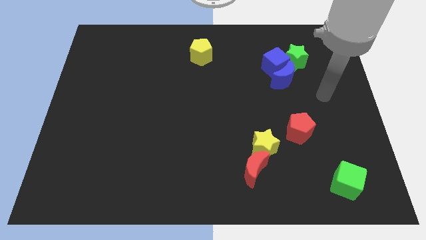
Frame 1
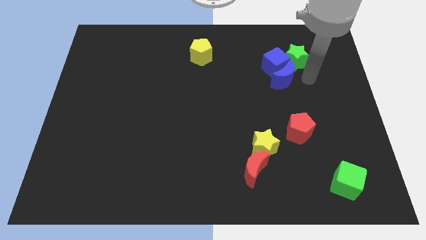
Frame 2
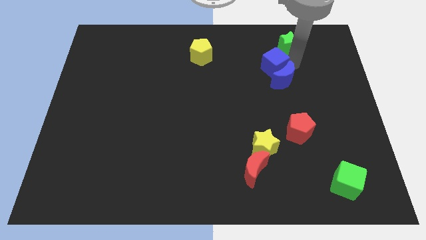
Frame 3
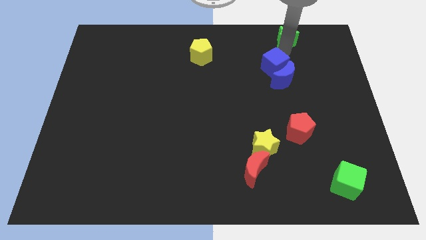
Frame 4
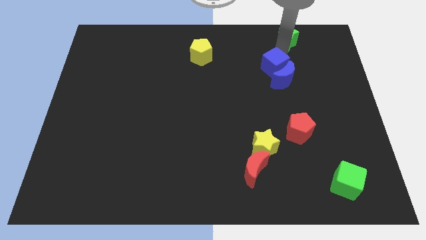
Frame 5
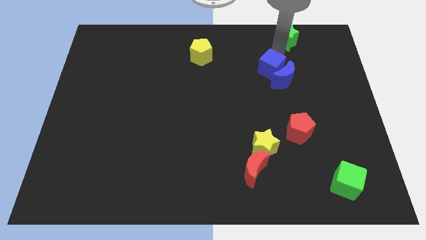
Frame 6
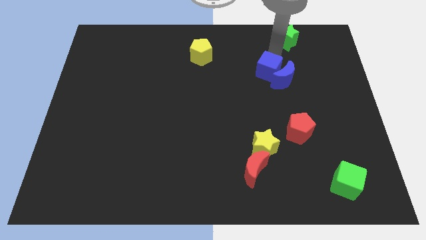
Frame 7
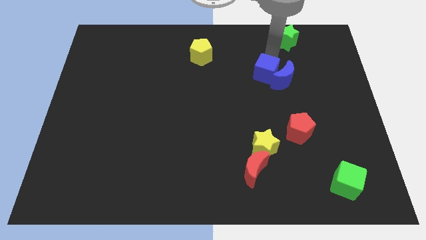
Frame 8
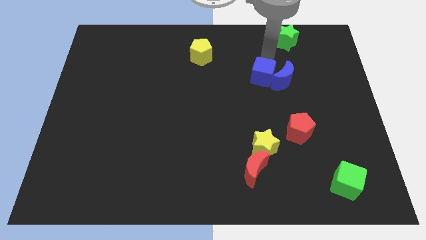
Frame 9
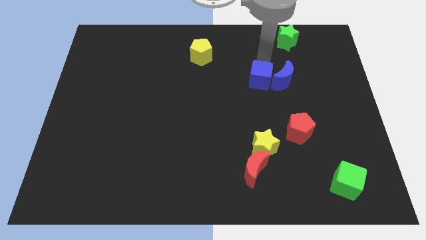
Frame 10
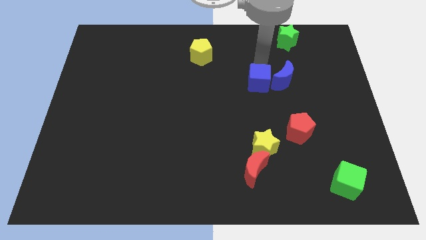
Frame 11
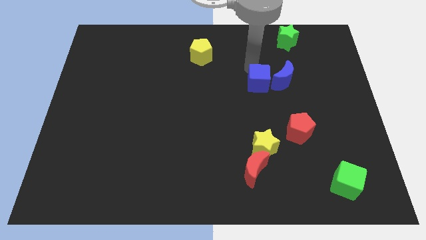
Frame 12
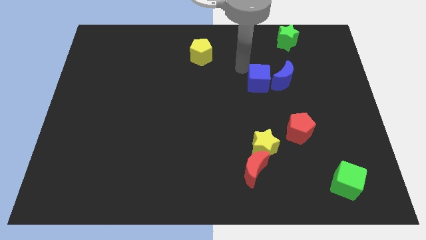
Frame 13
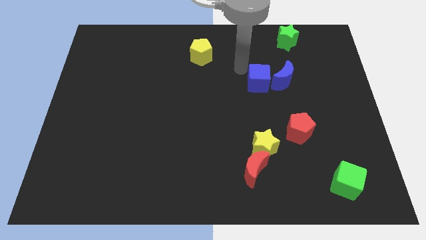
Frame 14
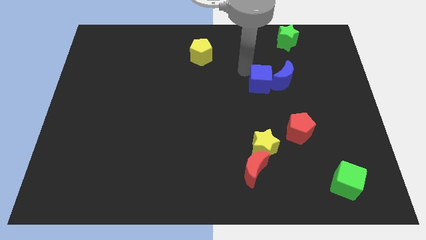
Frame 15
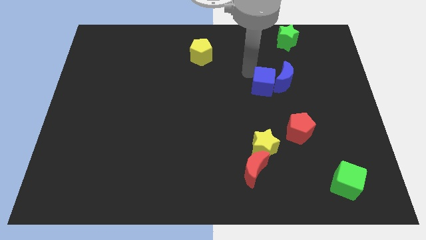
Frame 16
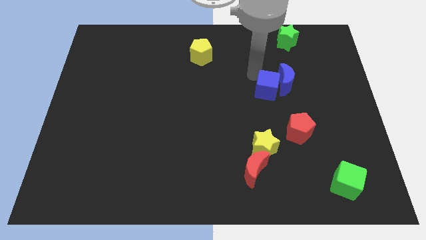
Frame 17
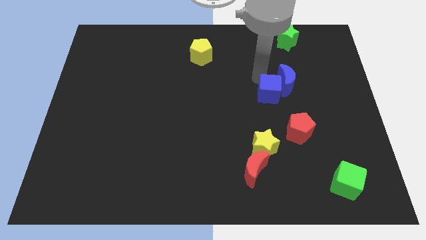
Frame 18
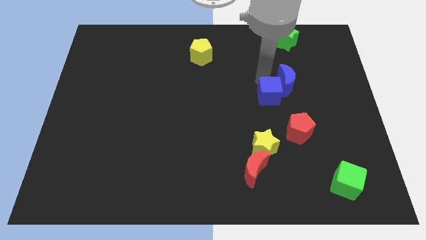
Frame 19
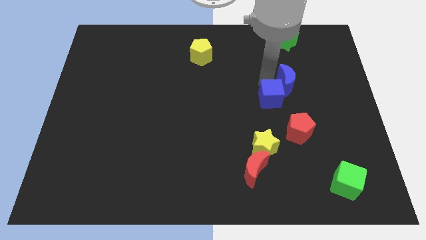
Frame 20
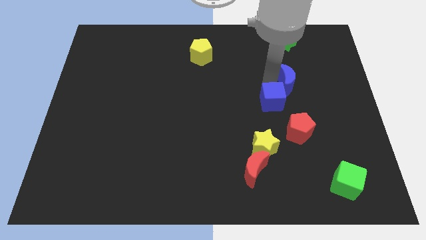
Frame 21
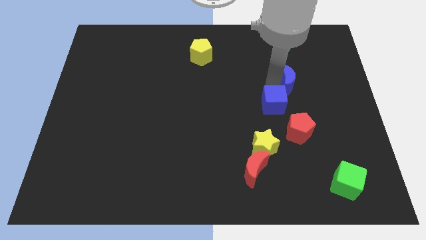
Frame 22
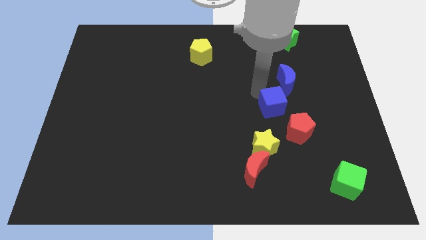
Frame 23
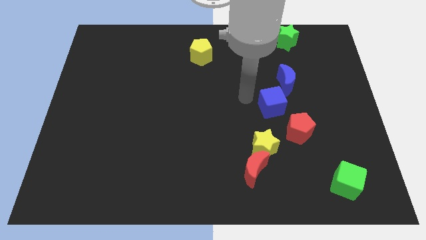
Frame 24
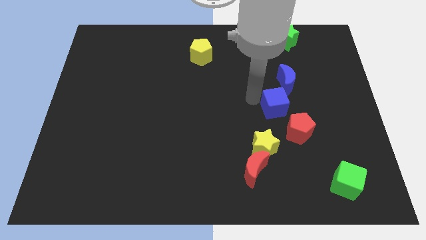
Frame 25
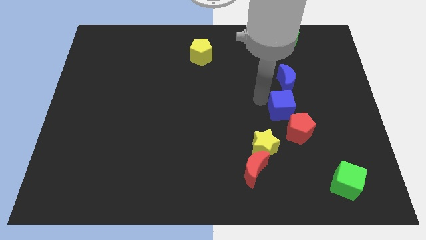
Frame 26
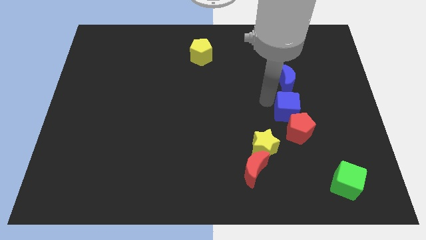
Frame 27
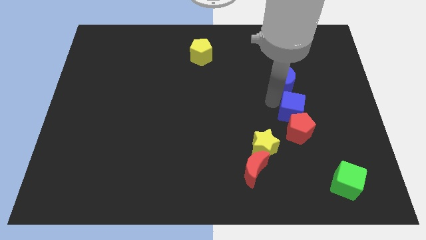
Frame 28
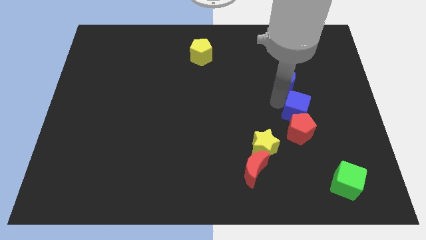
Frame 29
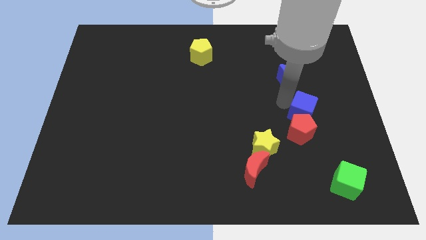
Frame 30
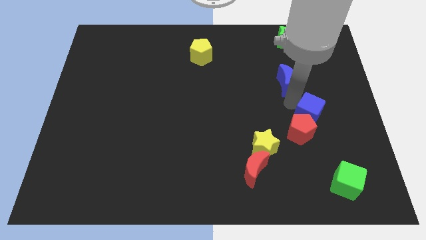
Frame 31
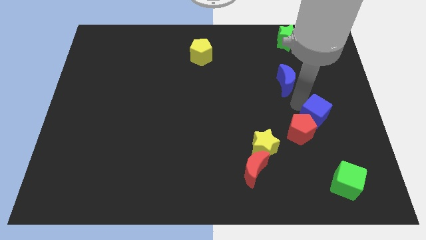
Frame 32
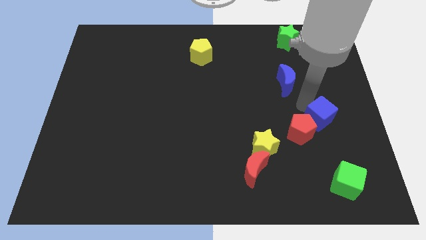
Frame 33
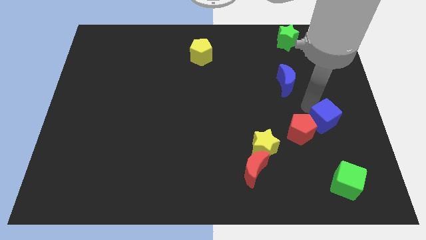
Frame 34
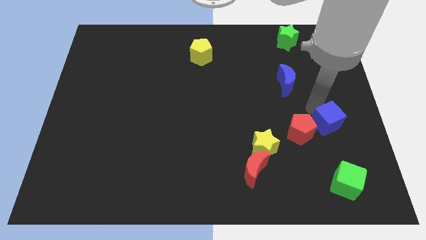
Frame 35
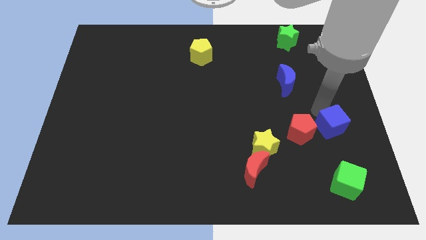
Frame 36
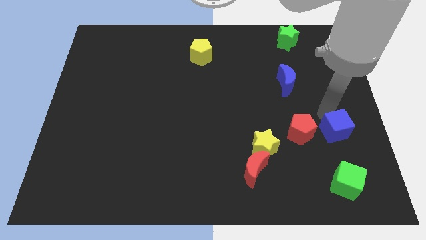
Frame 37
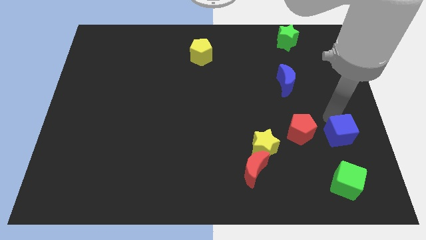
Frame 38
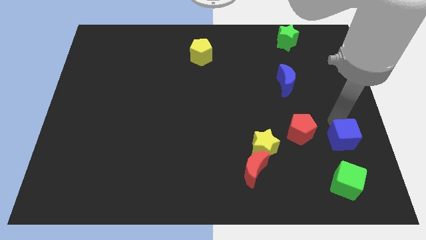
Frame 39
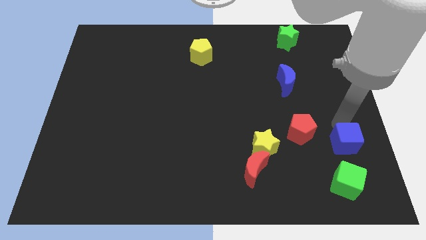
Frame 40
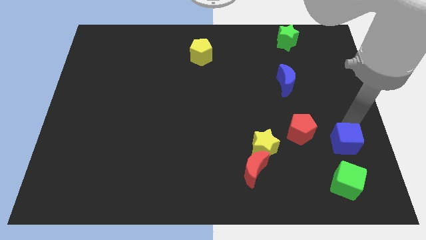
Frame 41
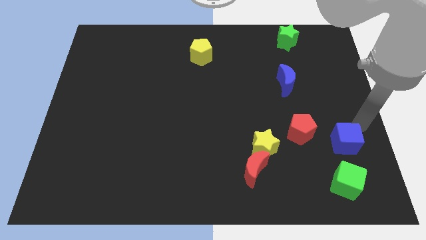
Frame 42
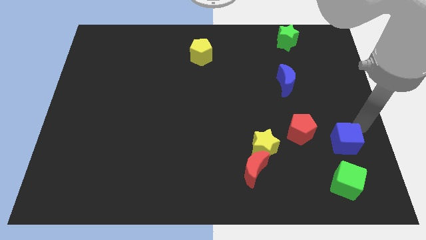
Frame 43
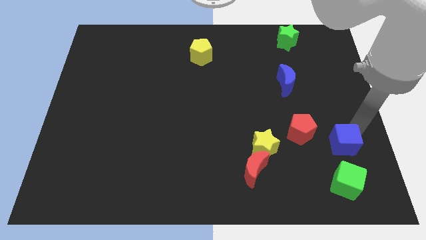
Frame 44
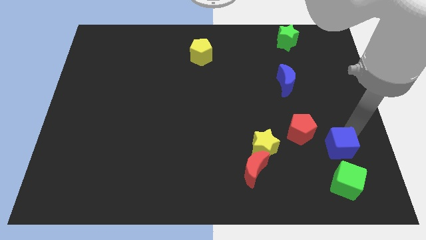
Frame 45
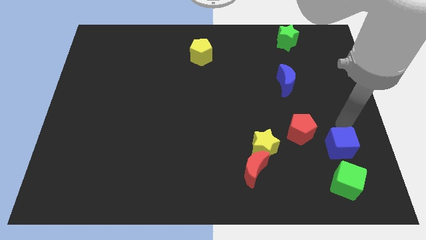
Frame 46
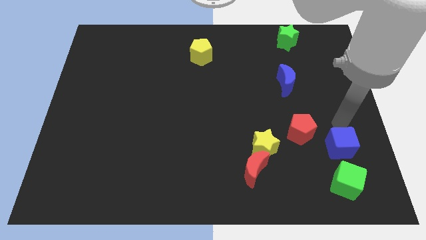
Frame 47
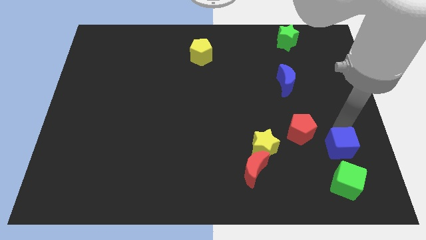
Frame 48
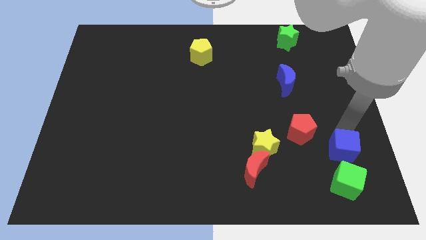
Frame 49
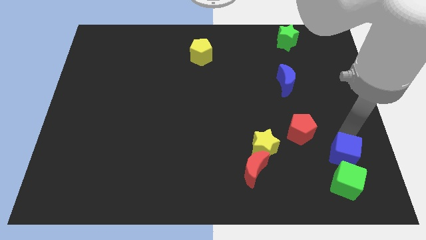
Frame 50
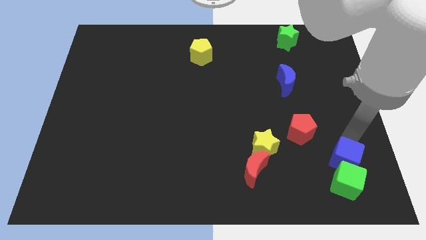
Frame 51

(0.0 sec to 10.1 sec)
move the blue cube next to the green cube

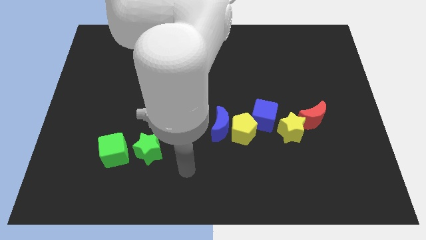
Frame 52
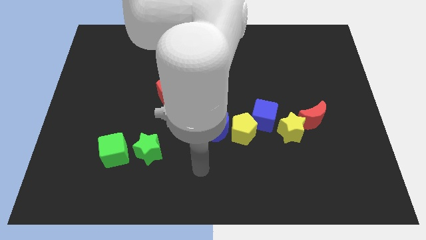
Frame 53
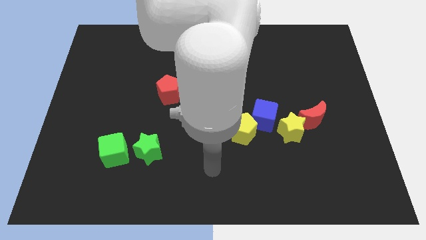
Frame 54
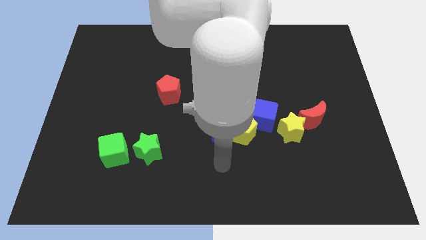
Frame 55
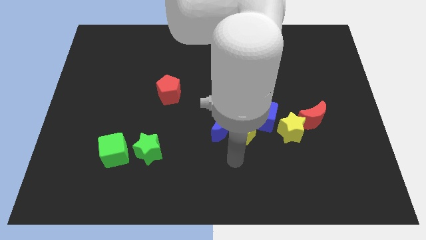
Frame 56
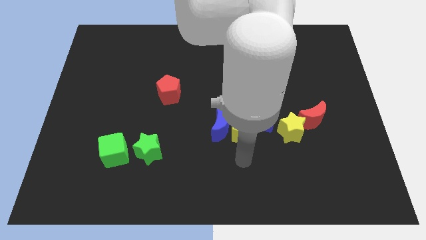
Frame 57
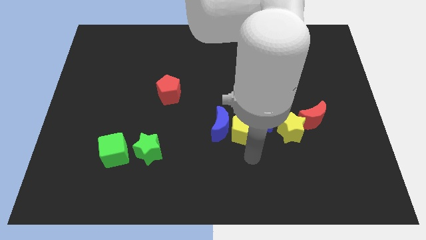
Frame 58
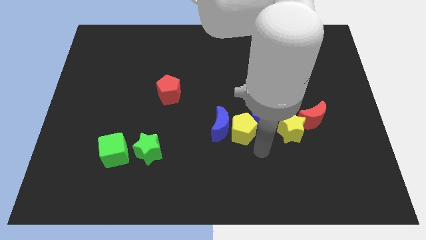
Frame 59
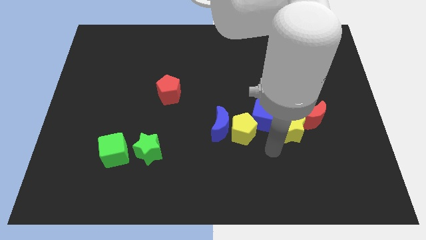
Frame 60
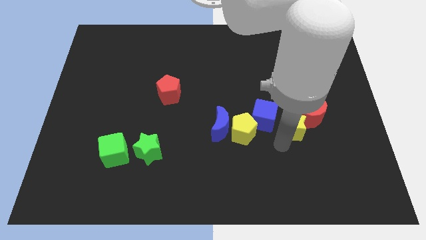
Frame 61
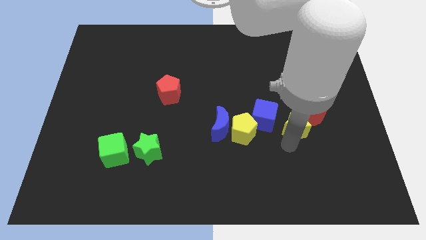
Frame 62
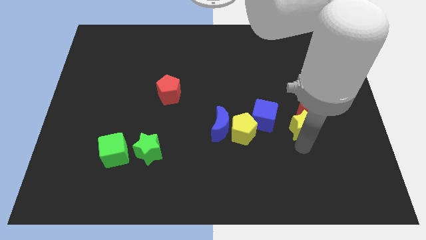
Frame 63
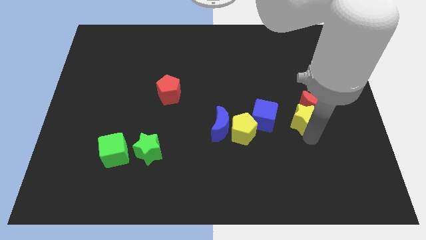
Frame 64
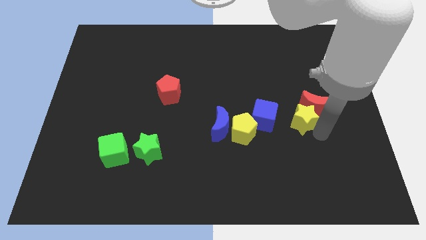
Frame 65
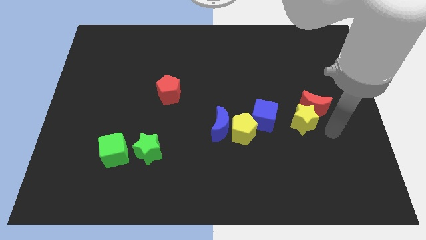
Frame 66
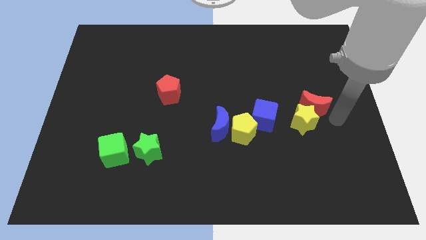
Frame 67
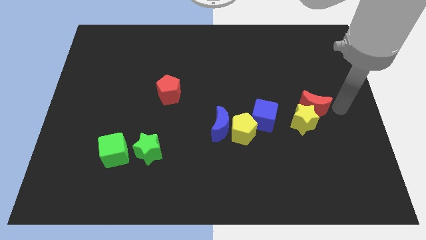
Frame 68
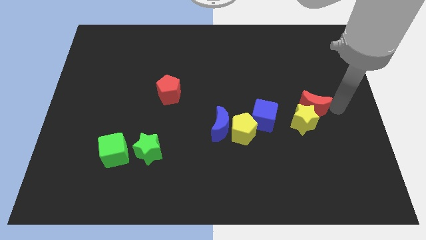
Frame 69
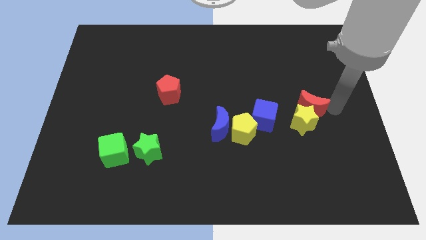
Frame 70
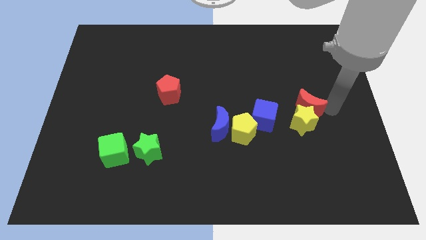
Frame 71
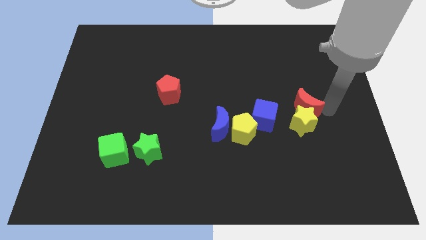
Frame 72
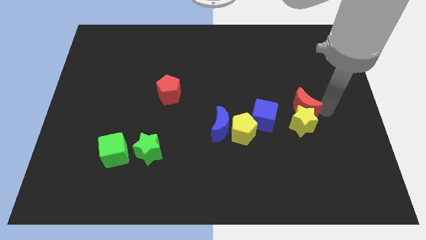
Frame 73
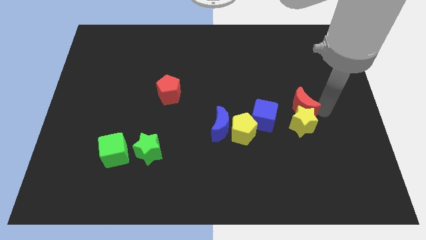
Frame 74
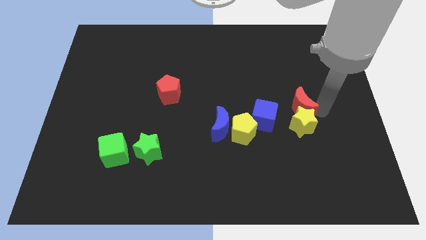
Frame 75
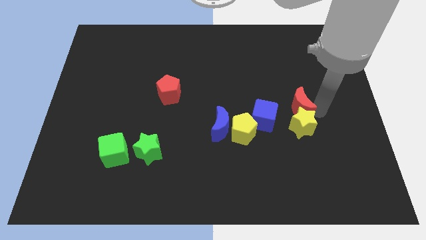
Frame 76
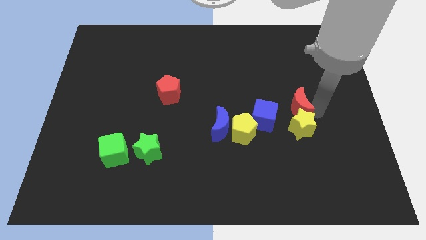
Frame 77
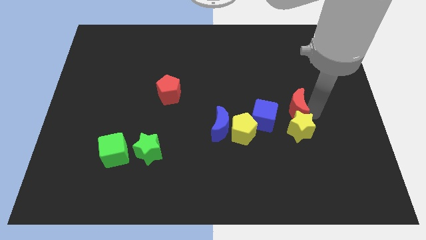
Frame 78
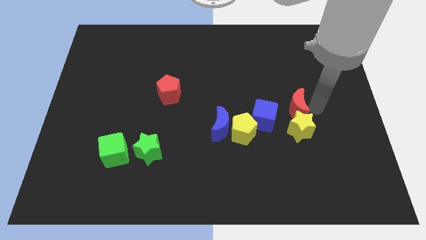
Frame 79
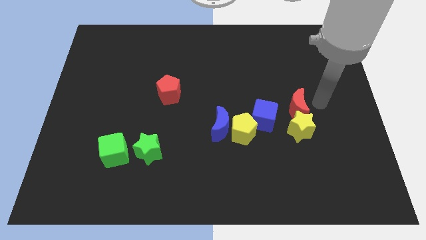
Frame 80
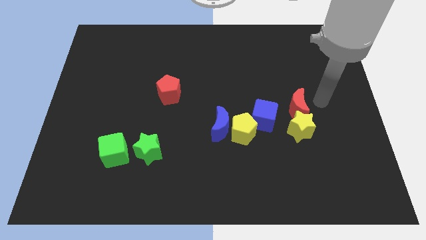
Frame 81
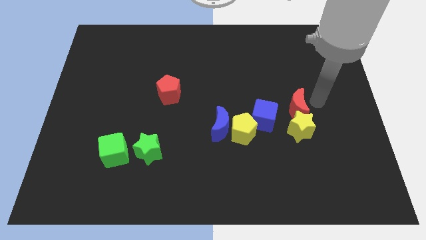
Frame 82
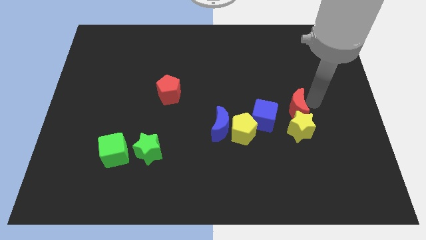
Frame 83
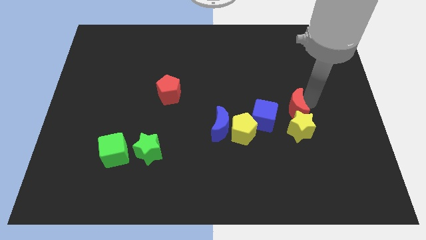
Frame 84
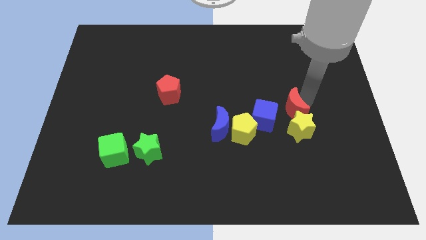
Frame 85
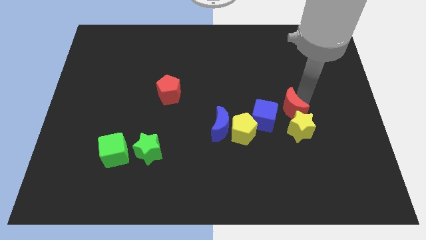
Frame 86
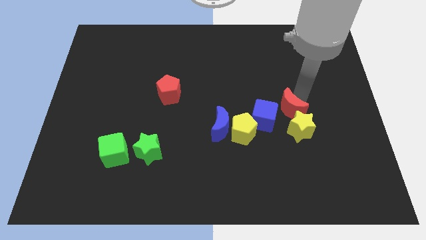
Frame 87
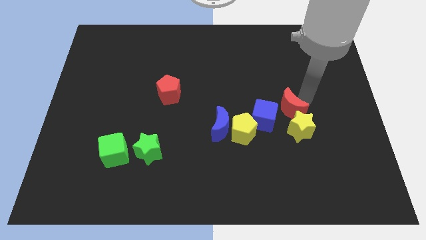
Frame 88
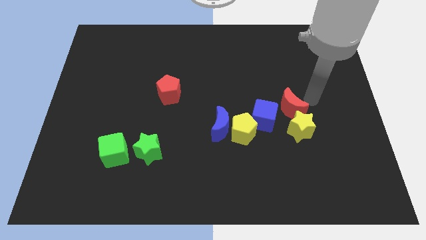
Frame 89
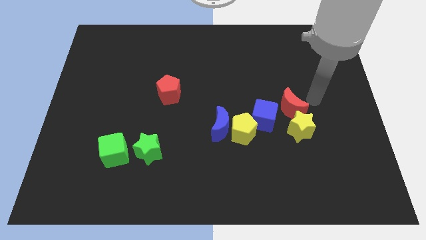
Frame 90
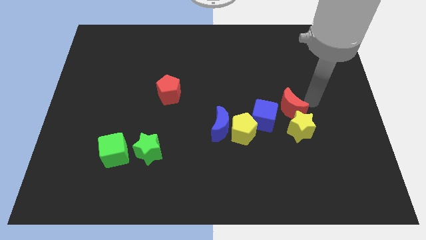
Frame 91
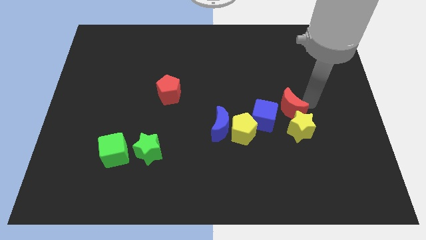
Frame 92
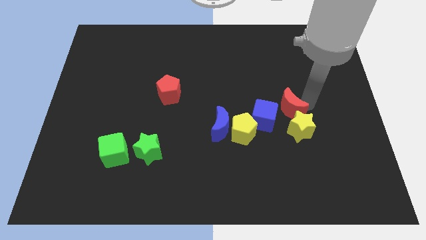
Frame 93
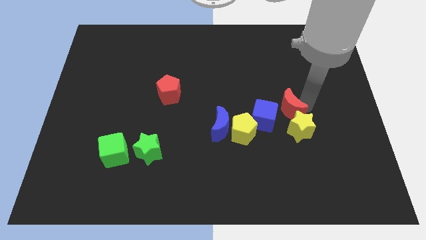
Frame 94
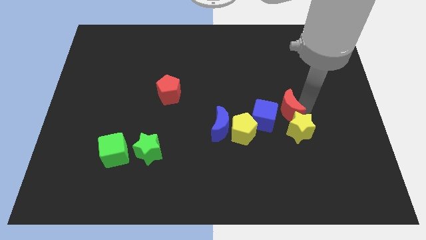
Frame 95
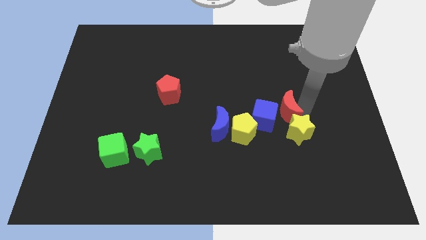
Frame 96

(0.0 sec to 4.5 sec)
slide the red moon to the blue cube
